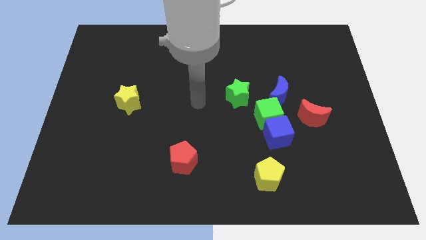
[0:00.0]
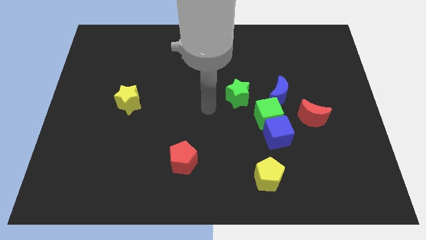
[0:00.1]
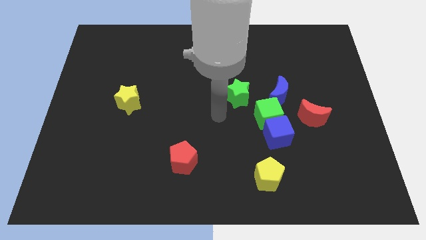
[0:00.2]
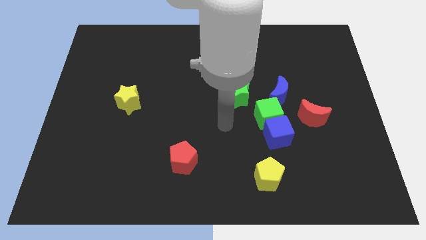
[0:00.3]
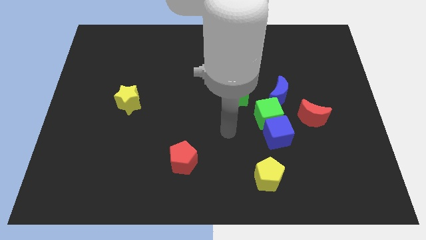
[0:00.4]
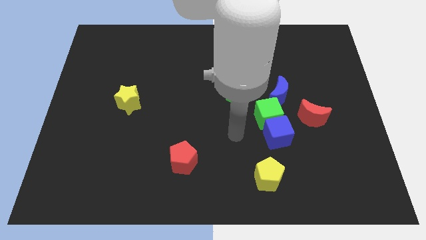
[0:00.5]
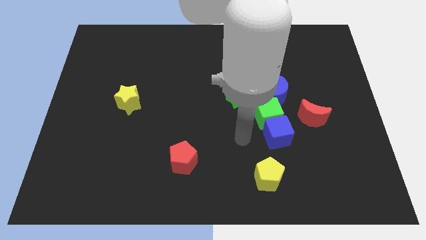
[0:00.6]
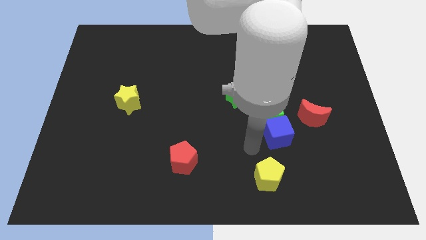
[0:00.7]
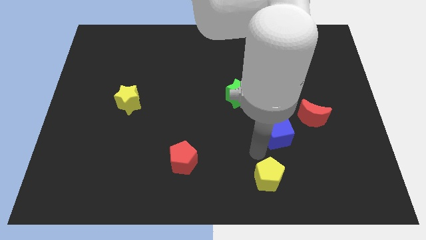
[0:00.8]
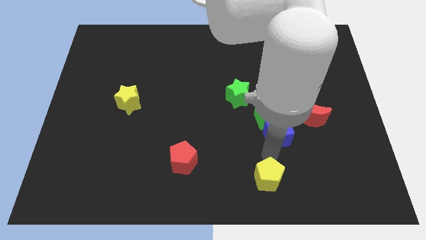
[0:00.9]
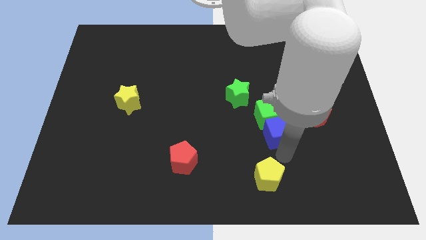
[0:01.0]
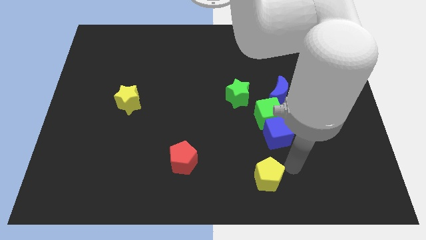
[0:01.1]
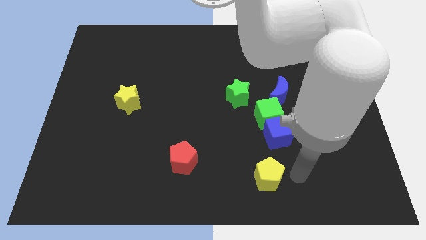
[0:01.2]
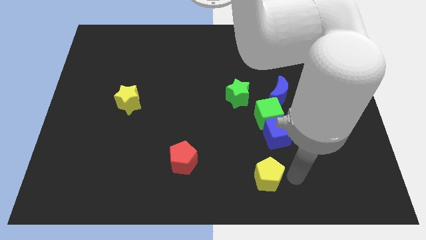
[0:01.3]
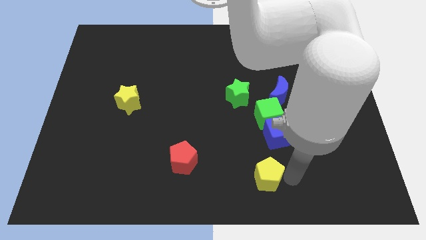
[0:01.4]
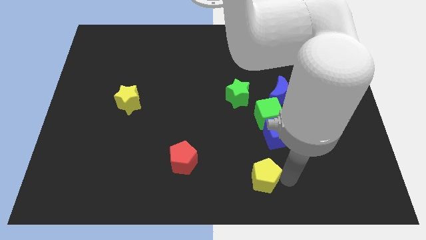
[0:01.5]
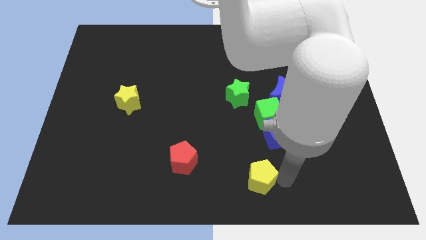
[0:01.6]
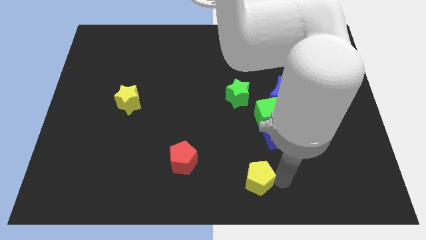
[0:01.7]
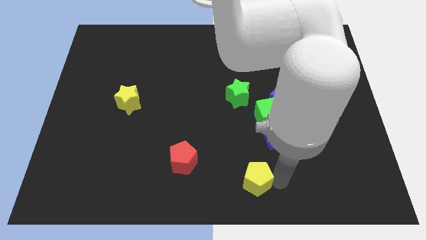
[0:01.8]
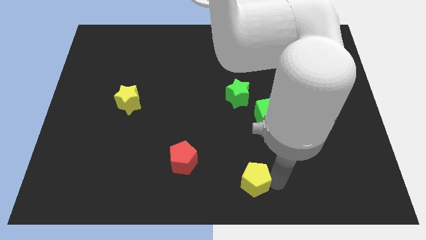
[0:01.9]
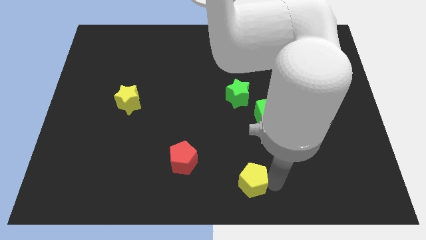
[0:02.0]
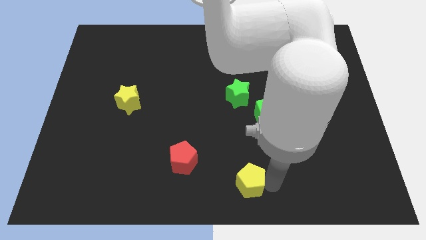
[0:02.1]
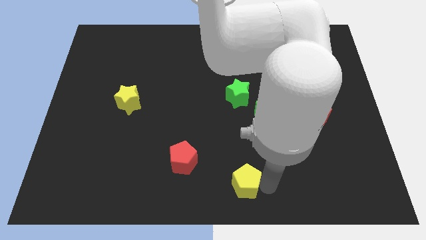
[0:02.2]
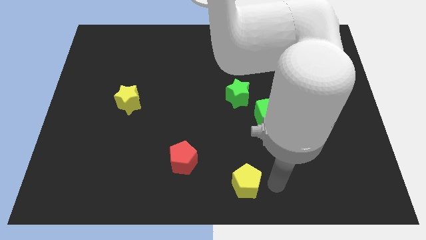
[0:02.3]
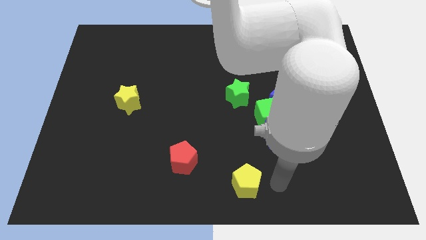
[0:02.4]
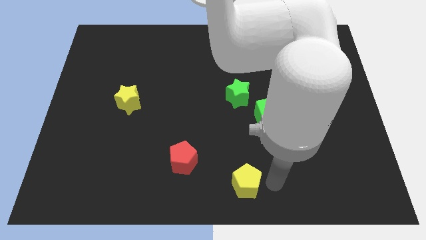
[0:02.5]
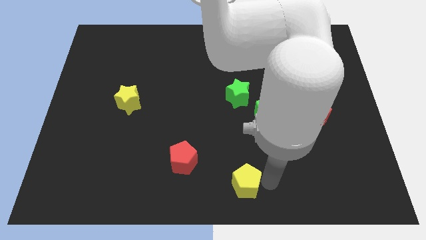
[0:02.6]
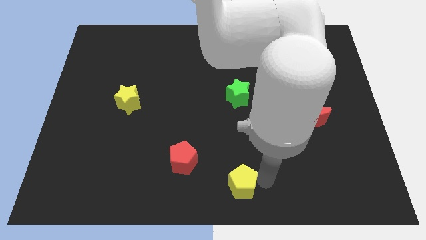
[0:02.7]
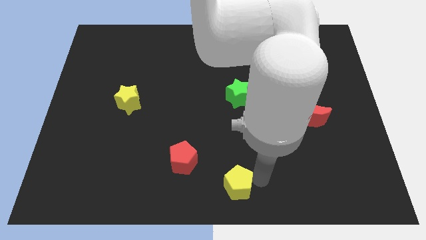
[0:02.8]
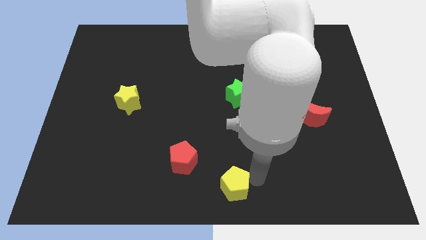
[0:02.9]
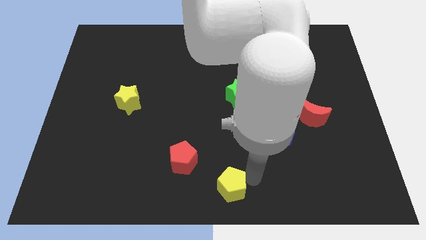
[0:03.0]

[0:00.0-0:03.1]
move the yellow pentagon to the left a little

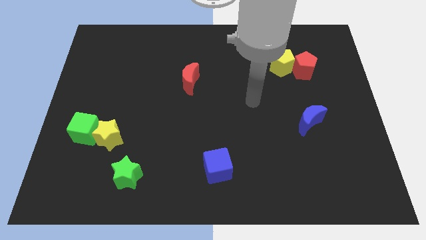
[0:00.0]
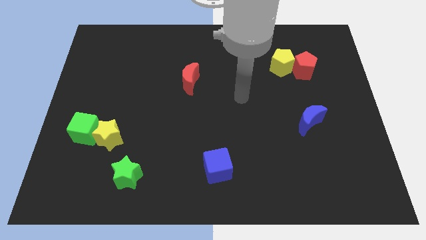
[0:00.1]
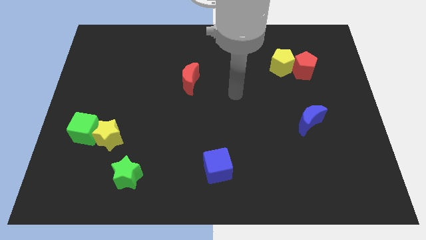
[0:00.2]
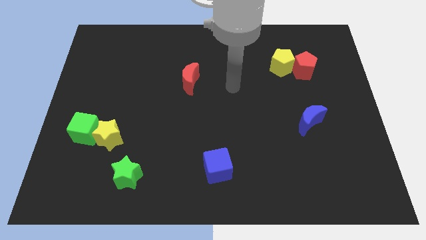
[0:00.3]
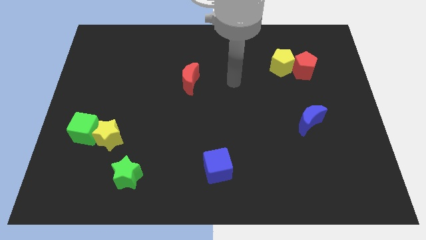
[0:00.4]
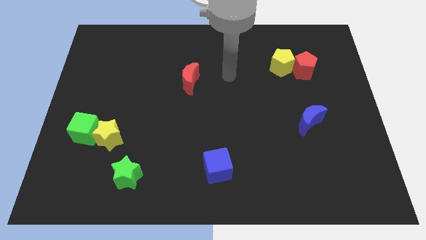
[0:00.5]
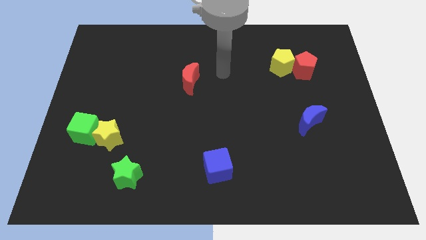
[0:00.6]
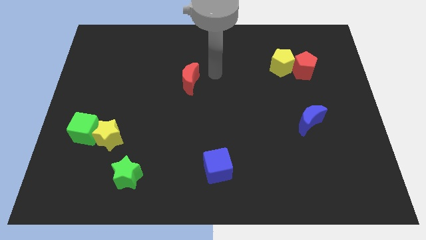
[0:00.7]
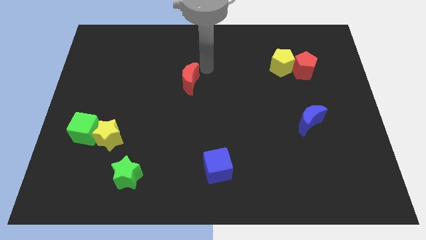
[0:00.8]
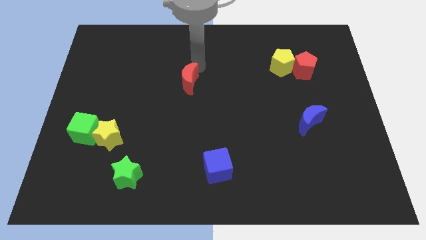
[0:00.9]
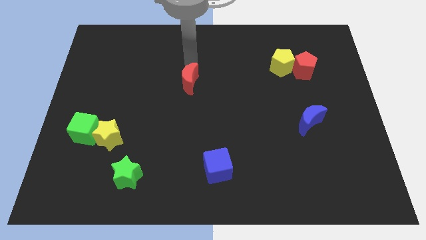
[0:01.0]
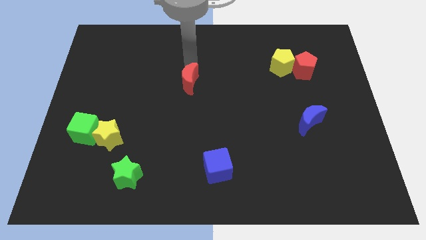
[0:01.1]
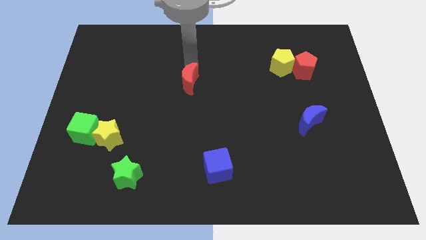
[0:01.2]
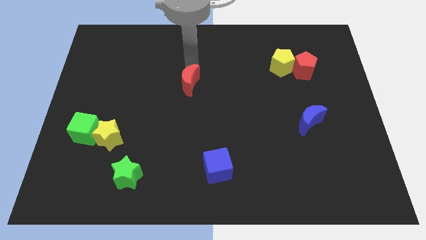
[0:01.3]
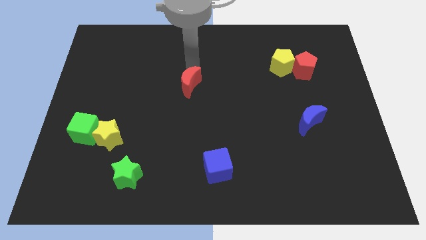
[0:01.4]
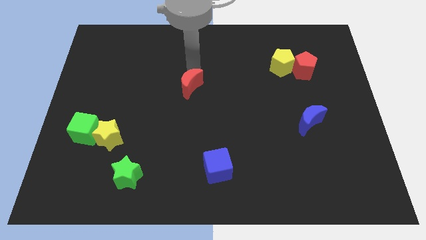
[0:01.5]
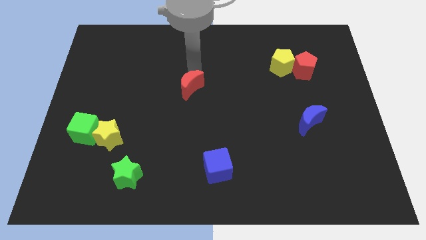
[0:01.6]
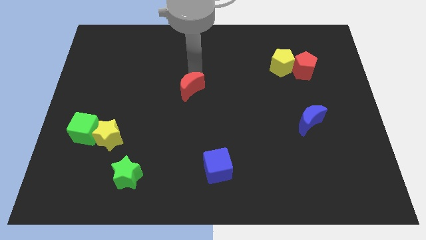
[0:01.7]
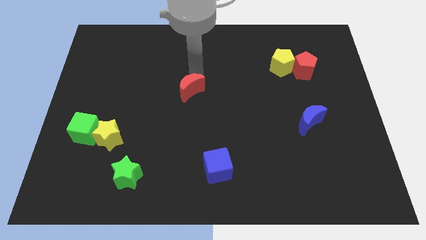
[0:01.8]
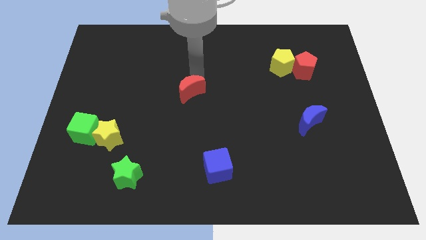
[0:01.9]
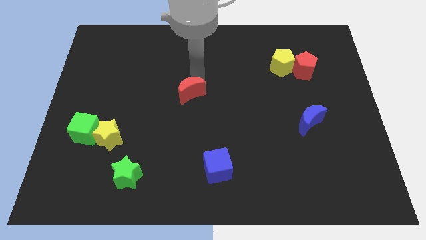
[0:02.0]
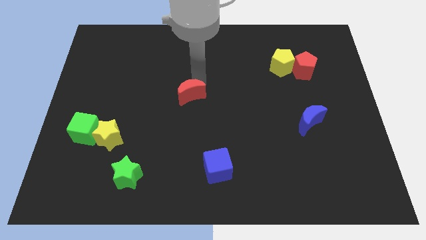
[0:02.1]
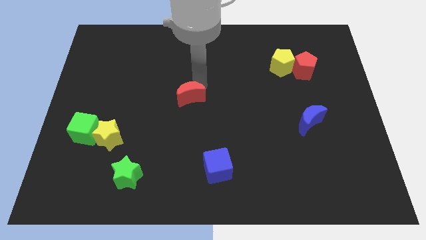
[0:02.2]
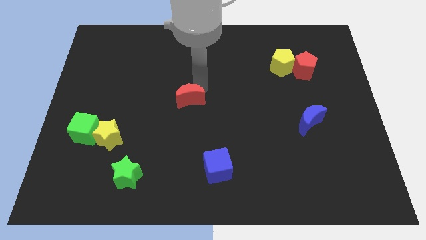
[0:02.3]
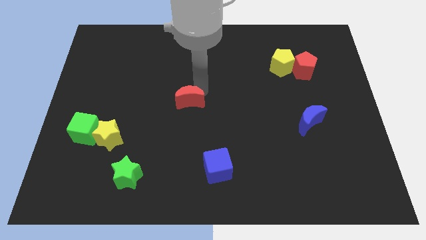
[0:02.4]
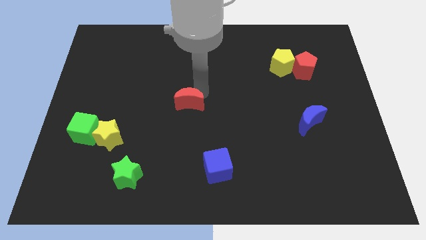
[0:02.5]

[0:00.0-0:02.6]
slide the red moon a little downwards

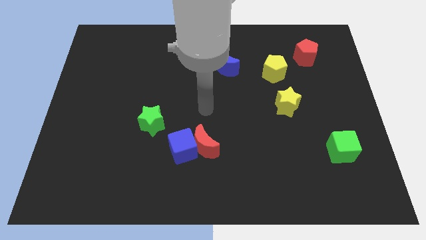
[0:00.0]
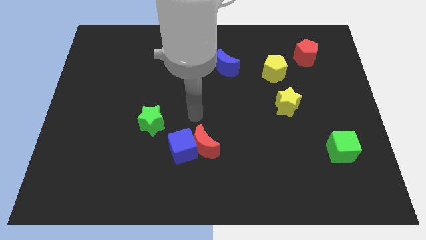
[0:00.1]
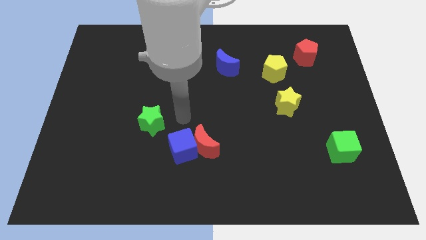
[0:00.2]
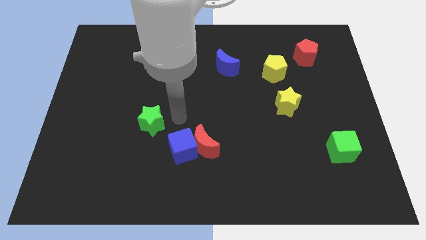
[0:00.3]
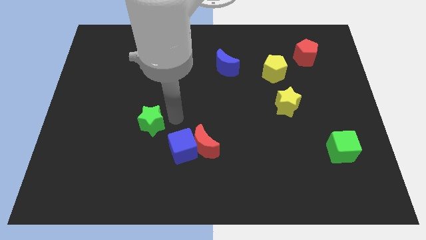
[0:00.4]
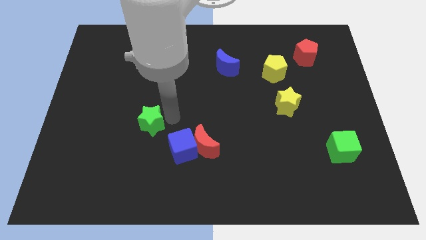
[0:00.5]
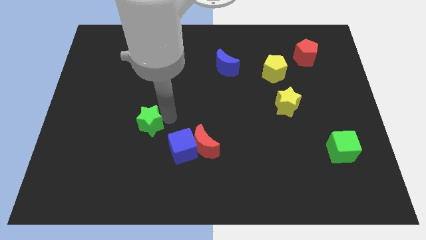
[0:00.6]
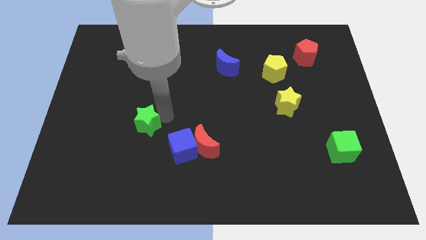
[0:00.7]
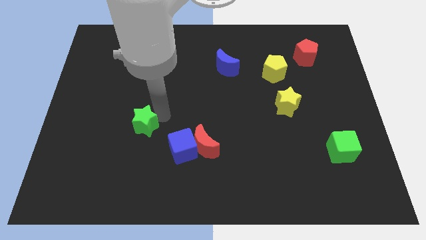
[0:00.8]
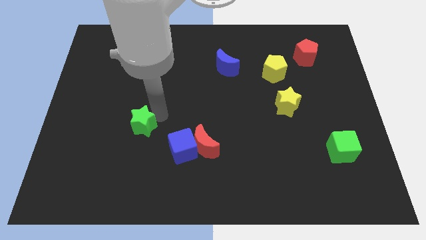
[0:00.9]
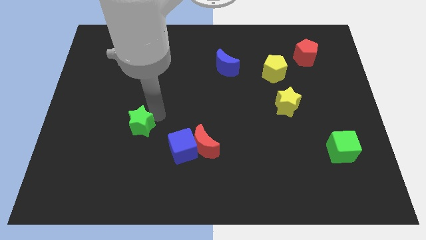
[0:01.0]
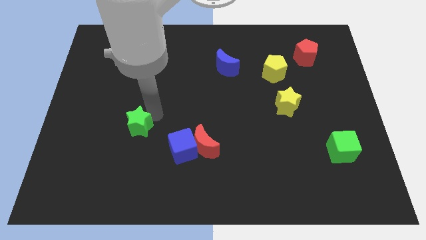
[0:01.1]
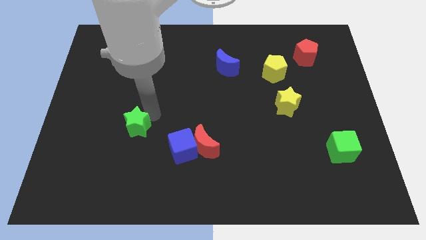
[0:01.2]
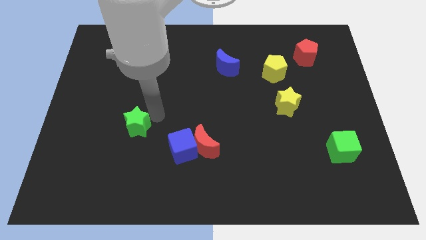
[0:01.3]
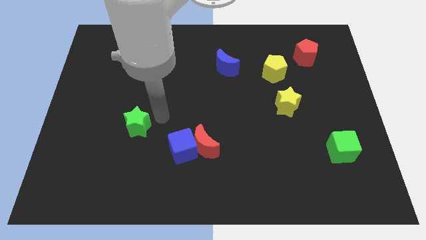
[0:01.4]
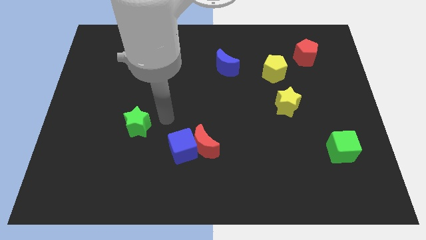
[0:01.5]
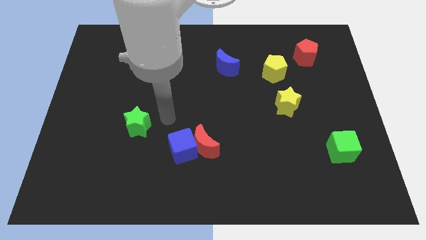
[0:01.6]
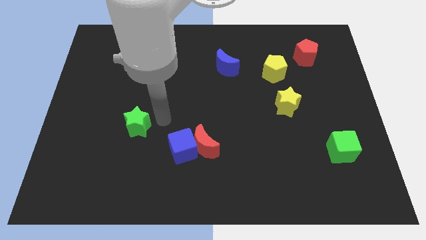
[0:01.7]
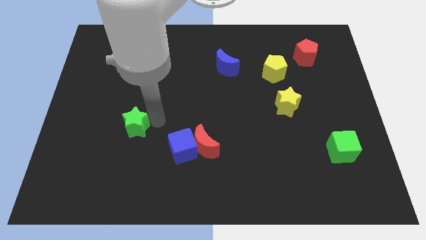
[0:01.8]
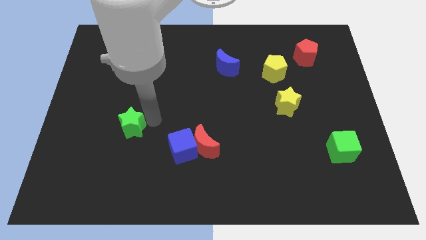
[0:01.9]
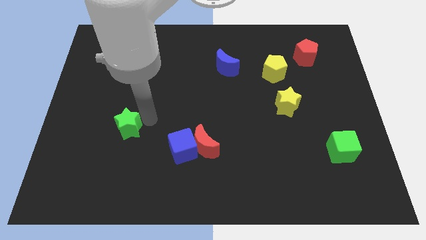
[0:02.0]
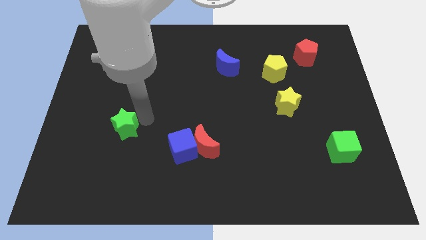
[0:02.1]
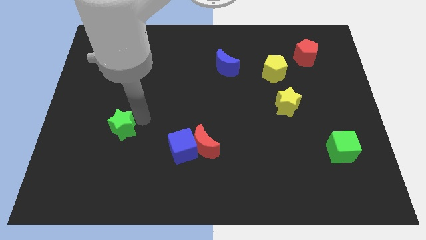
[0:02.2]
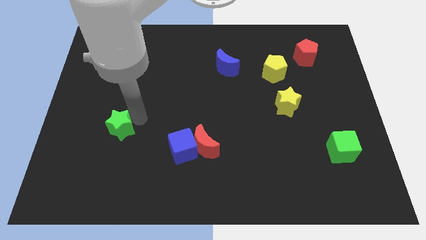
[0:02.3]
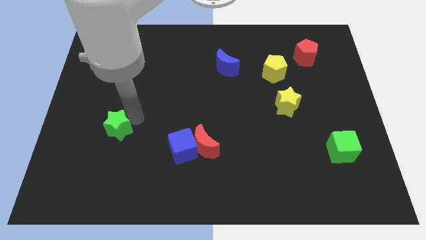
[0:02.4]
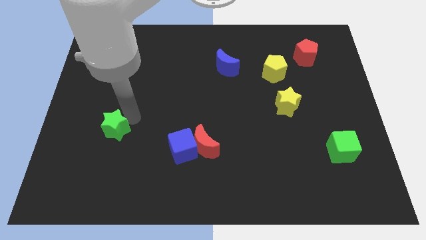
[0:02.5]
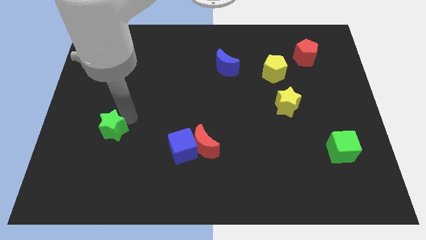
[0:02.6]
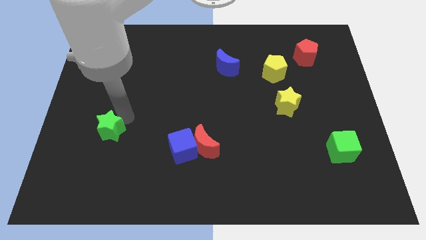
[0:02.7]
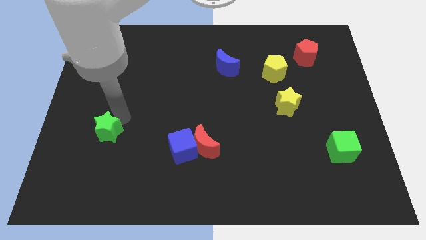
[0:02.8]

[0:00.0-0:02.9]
slightly push the green star downwards and then to the left
